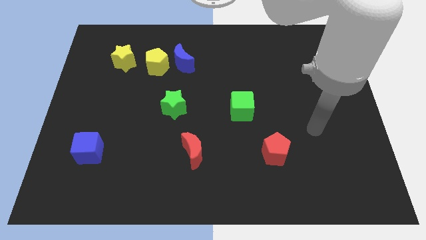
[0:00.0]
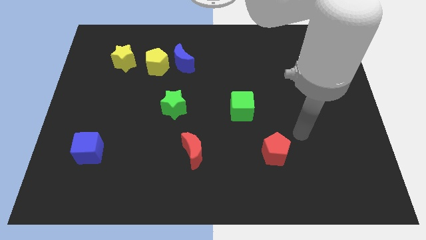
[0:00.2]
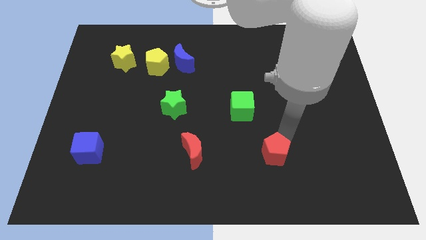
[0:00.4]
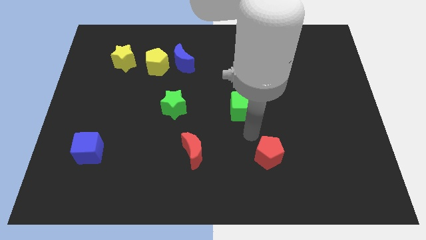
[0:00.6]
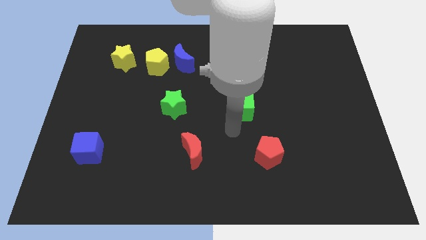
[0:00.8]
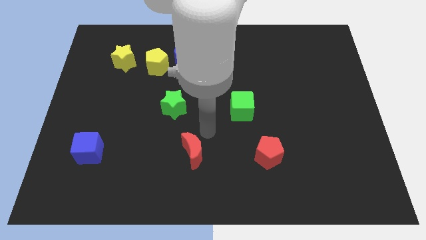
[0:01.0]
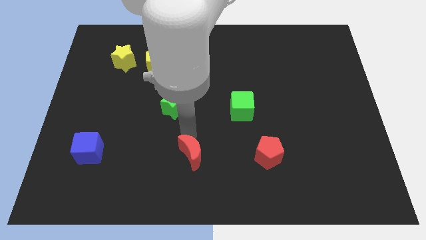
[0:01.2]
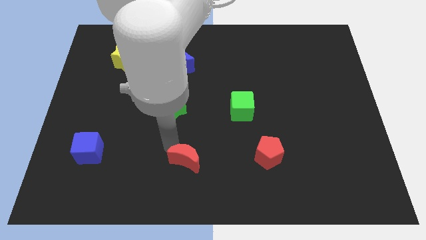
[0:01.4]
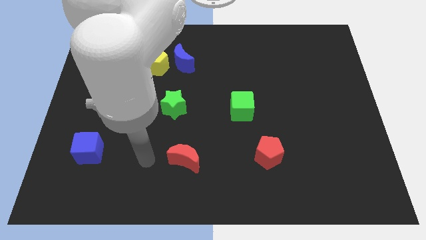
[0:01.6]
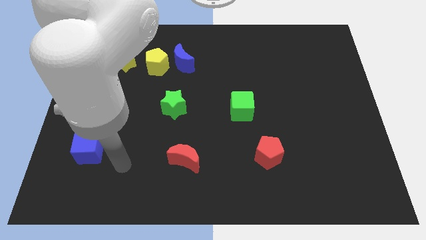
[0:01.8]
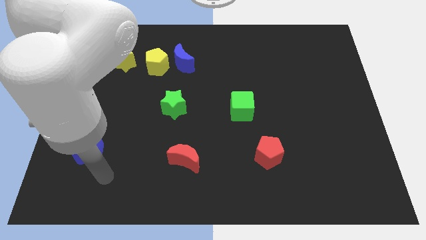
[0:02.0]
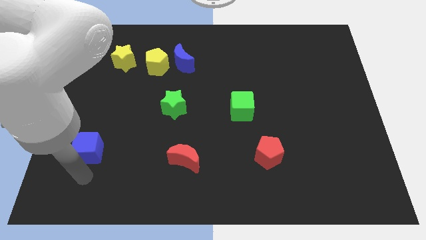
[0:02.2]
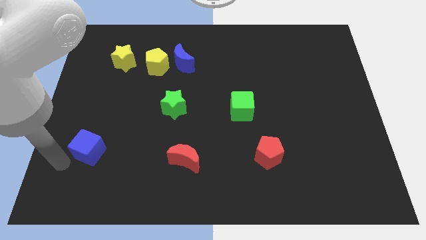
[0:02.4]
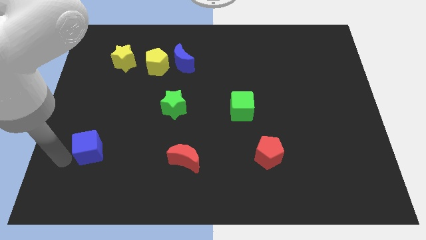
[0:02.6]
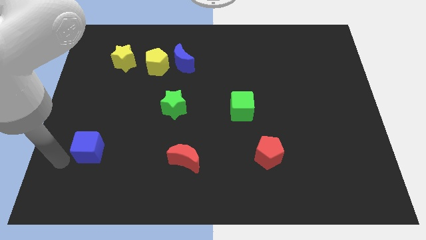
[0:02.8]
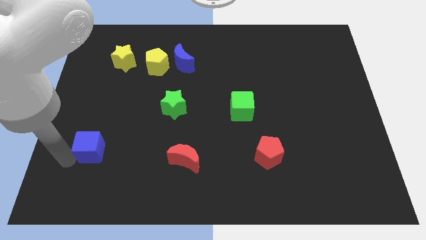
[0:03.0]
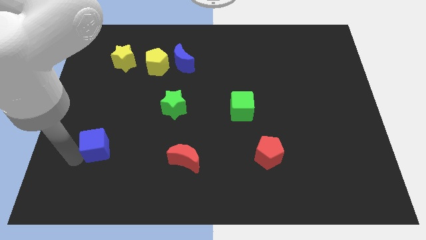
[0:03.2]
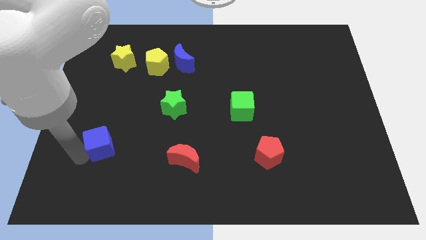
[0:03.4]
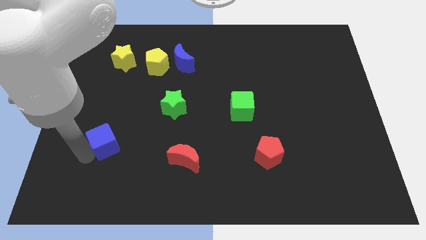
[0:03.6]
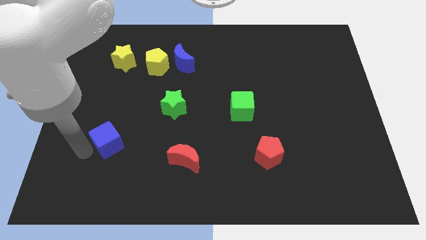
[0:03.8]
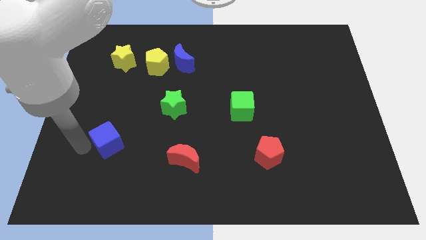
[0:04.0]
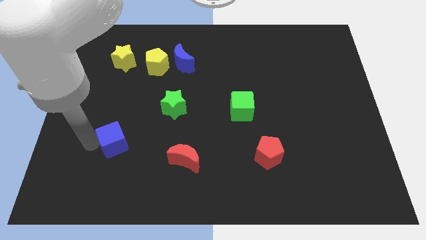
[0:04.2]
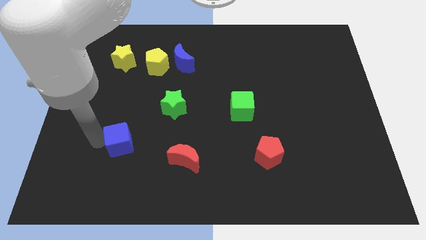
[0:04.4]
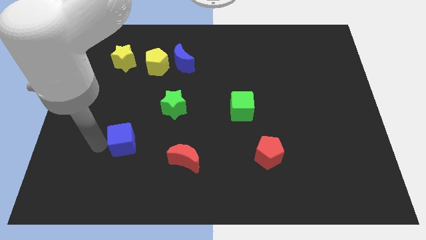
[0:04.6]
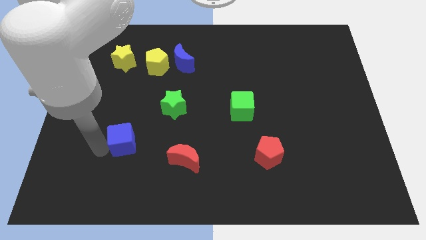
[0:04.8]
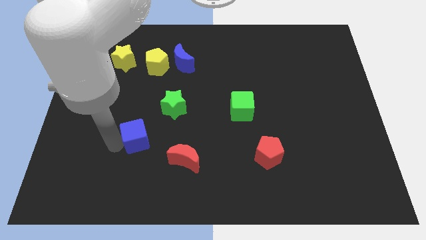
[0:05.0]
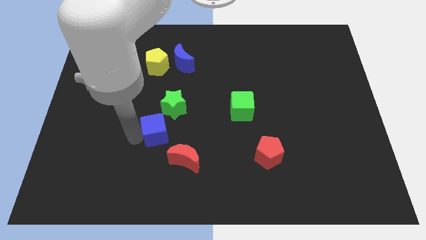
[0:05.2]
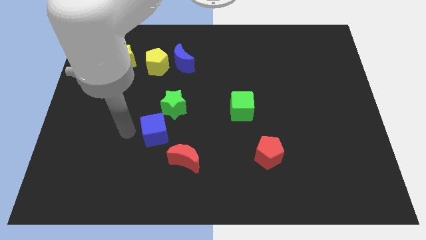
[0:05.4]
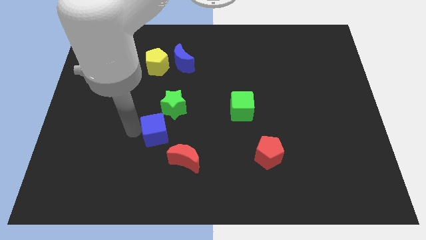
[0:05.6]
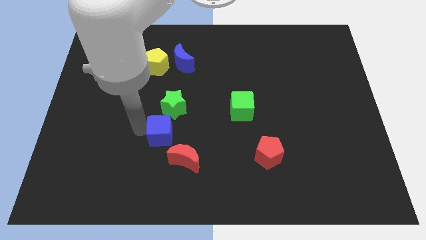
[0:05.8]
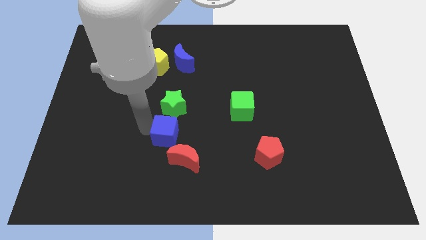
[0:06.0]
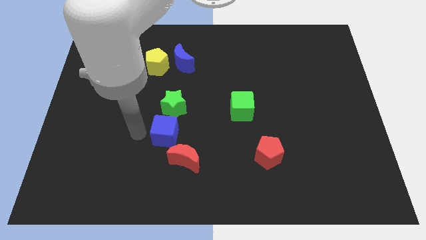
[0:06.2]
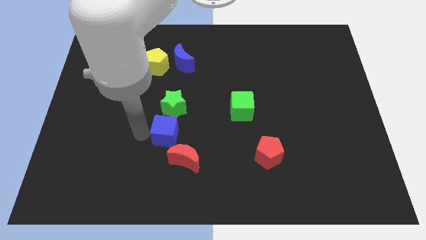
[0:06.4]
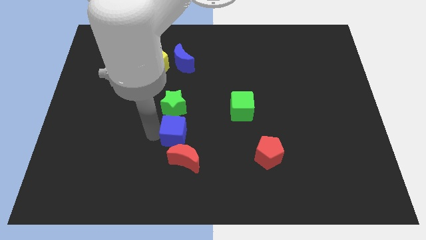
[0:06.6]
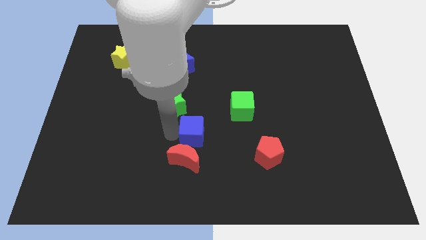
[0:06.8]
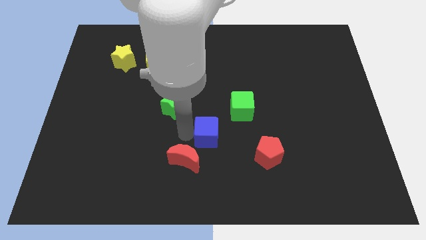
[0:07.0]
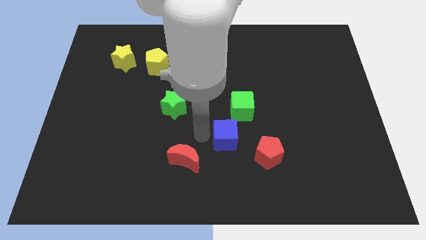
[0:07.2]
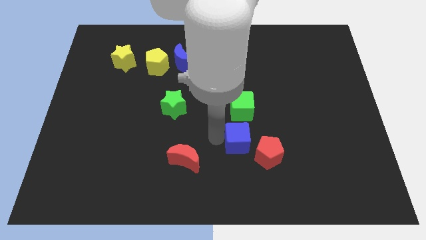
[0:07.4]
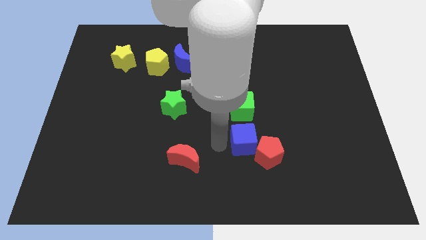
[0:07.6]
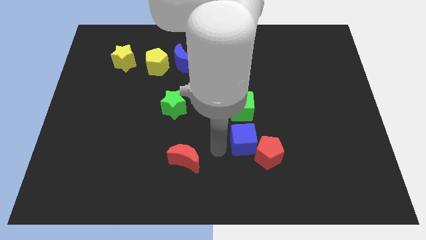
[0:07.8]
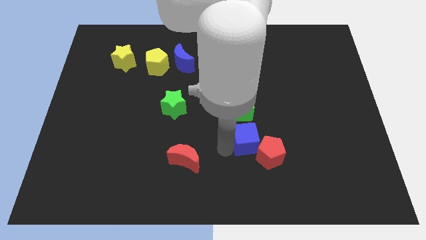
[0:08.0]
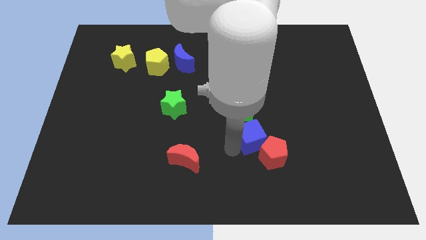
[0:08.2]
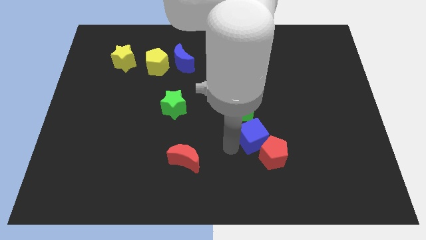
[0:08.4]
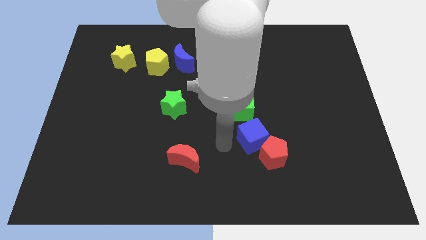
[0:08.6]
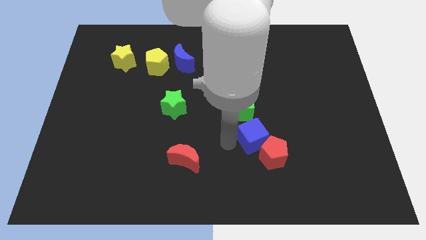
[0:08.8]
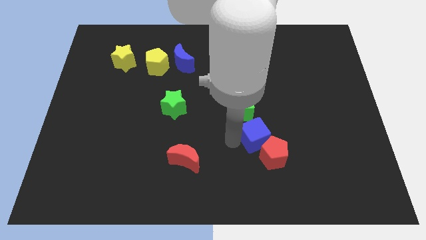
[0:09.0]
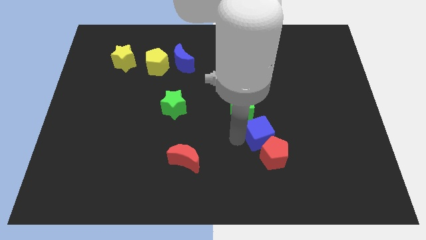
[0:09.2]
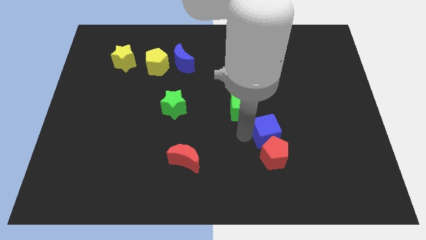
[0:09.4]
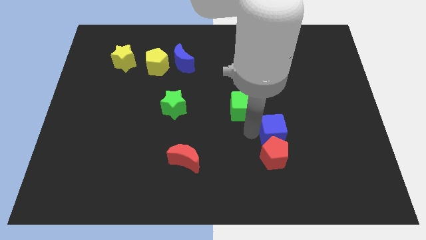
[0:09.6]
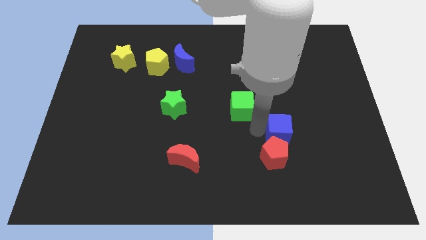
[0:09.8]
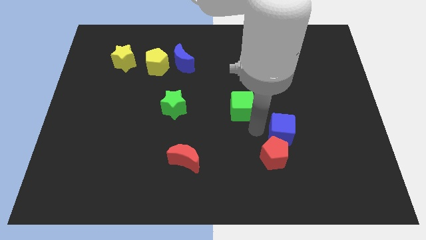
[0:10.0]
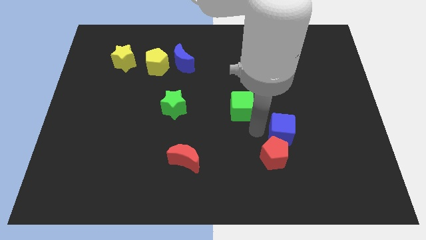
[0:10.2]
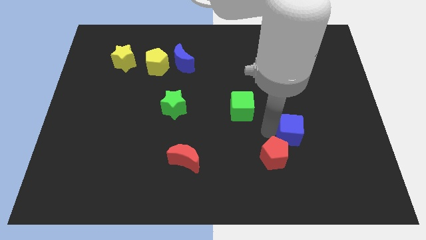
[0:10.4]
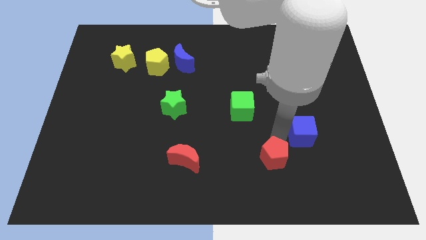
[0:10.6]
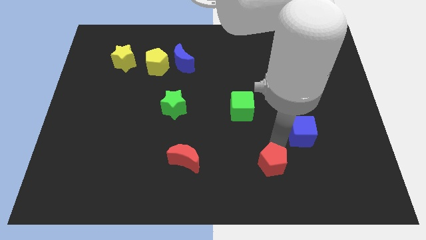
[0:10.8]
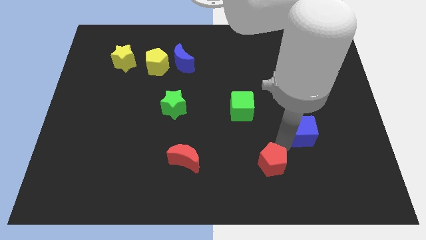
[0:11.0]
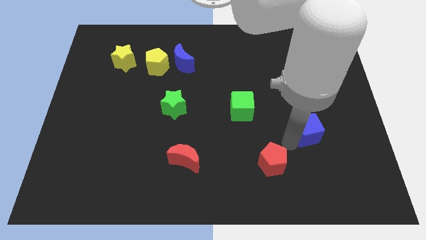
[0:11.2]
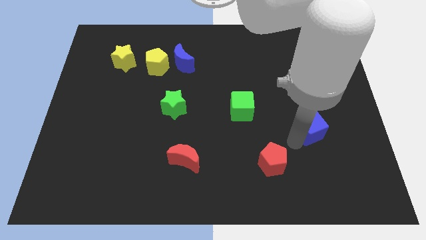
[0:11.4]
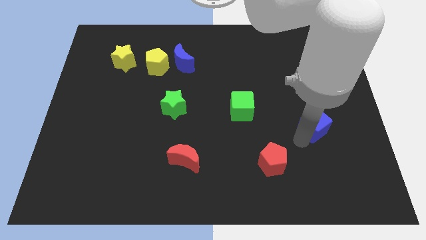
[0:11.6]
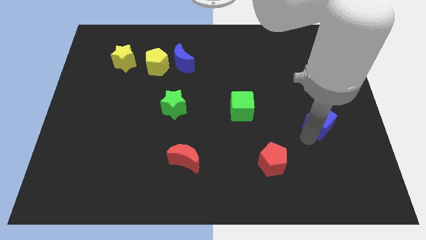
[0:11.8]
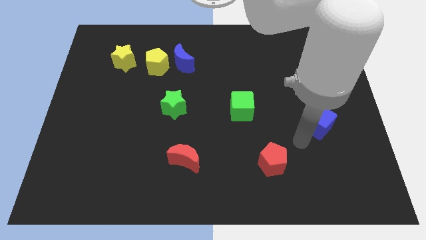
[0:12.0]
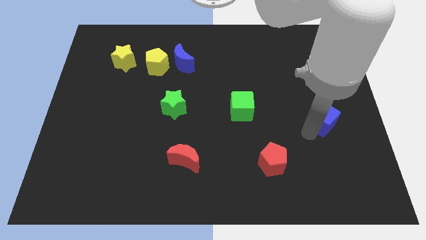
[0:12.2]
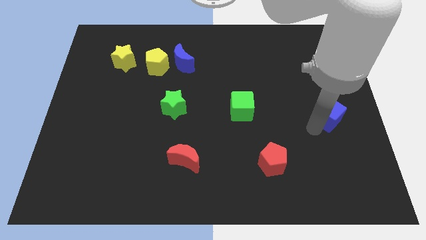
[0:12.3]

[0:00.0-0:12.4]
push the blue cube to the right side

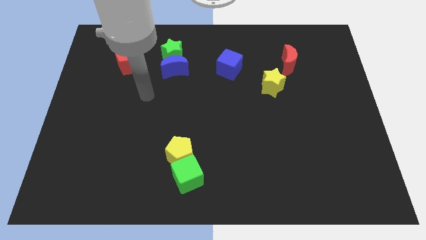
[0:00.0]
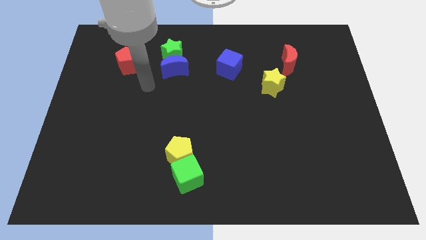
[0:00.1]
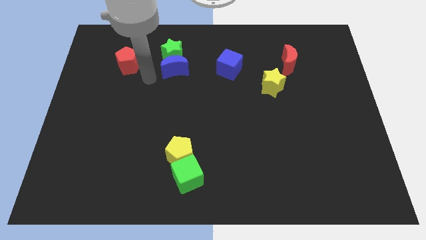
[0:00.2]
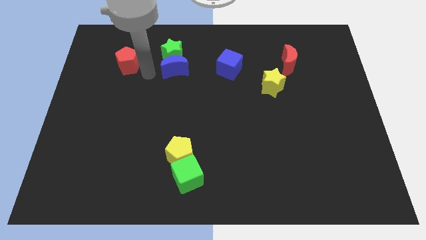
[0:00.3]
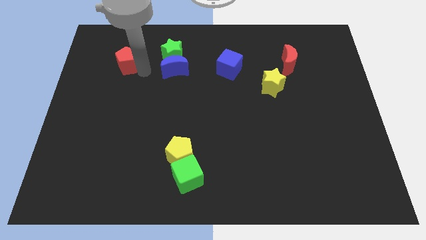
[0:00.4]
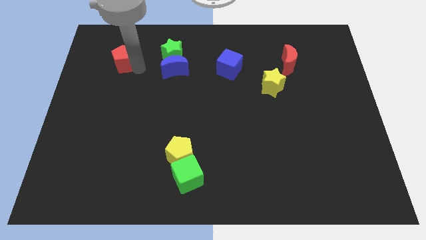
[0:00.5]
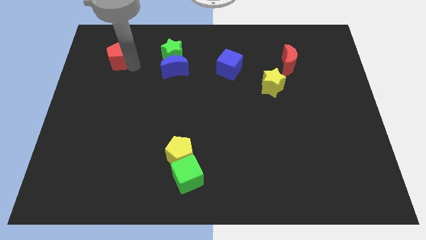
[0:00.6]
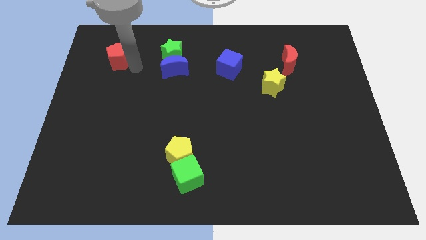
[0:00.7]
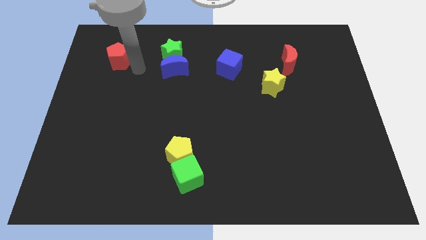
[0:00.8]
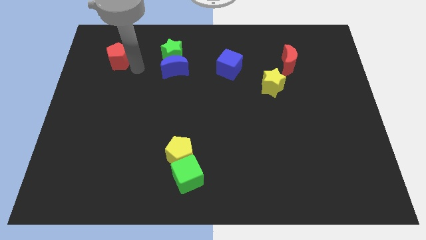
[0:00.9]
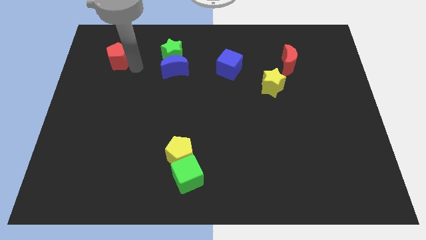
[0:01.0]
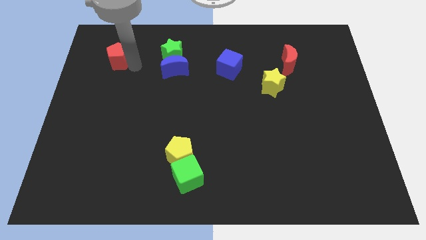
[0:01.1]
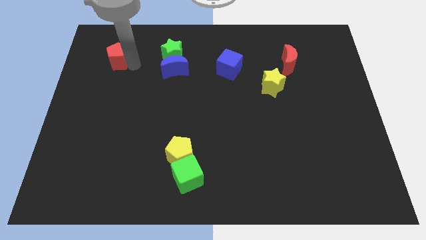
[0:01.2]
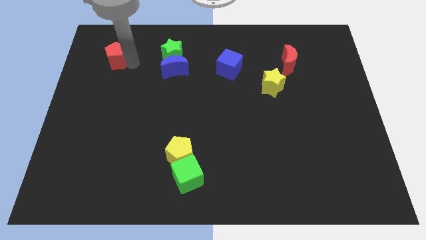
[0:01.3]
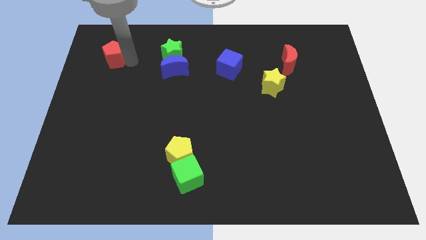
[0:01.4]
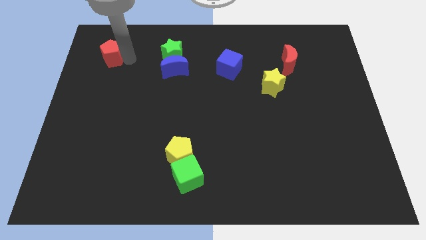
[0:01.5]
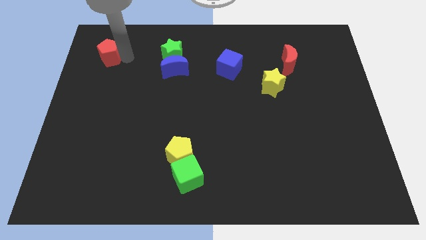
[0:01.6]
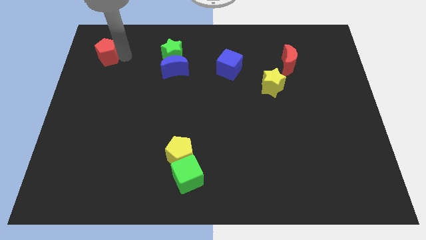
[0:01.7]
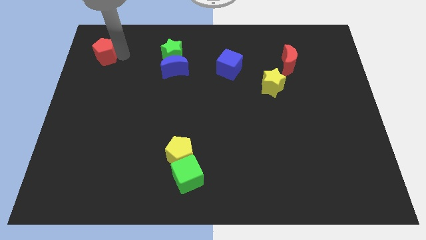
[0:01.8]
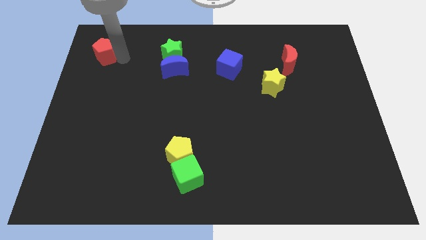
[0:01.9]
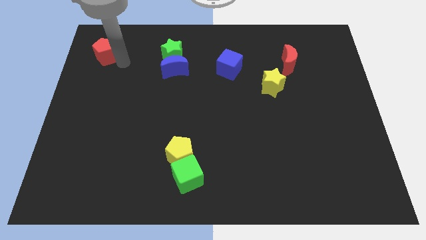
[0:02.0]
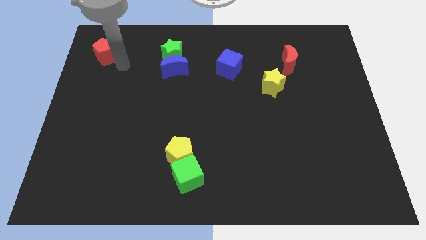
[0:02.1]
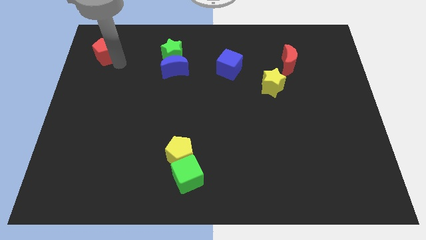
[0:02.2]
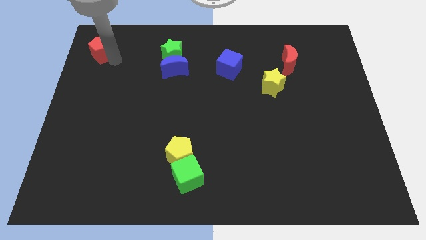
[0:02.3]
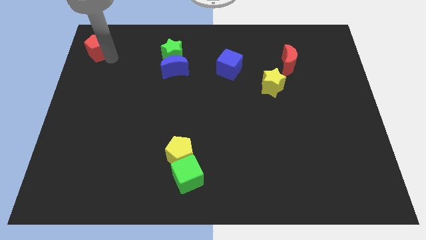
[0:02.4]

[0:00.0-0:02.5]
push the red pentagon to the top left corner
